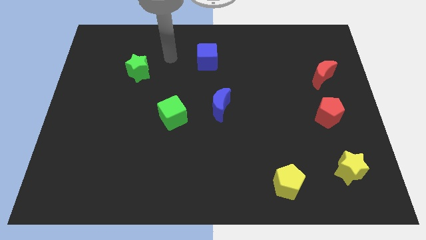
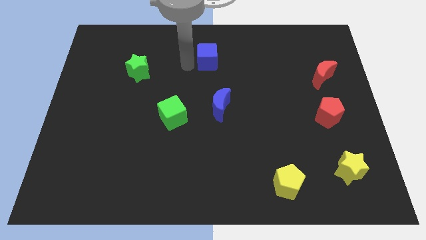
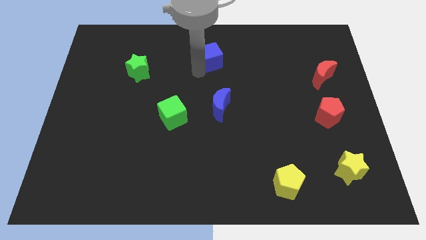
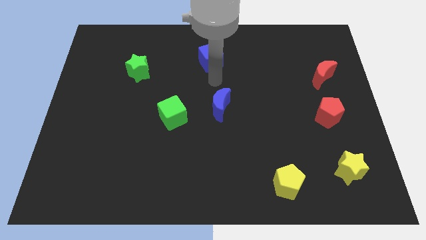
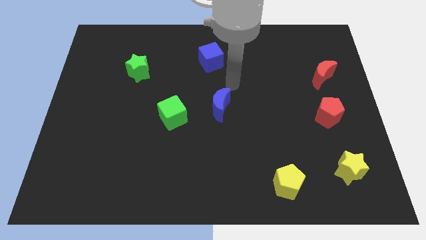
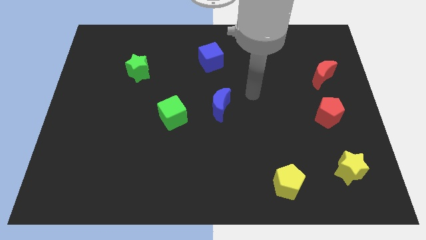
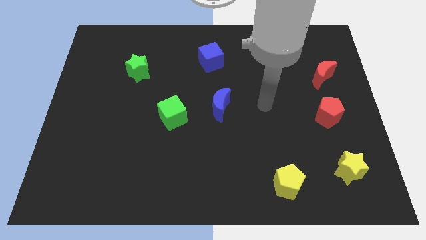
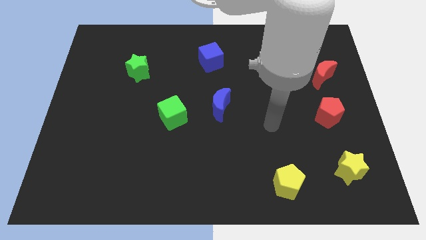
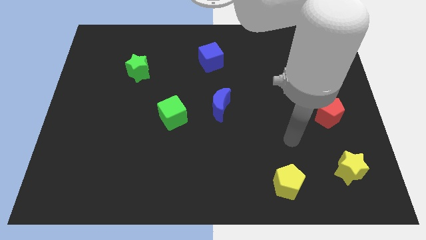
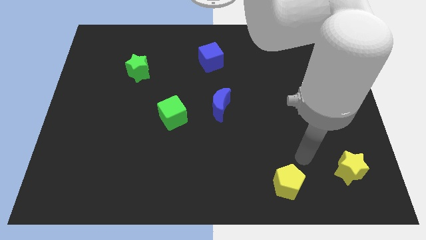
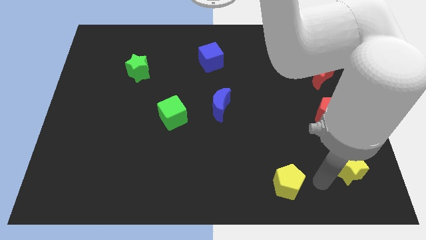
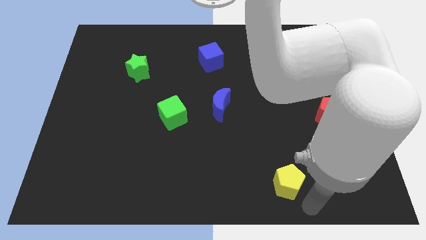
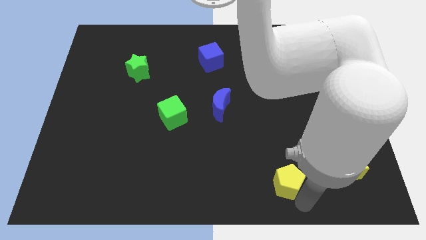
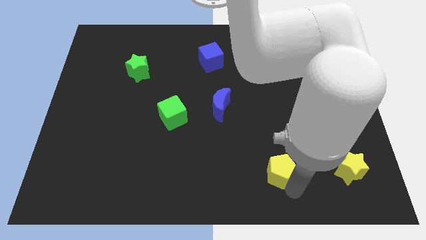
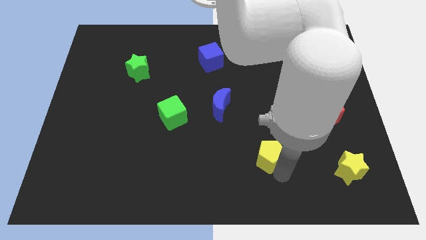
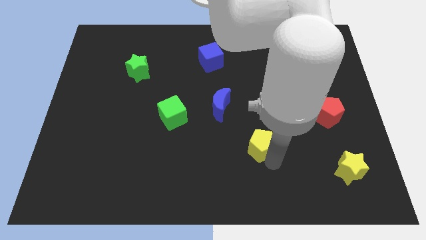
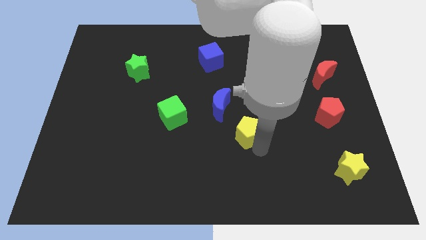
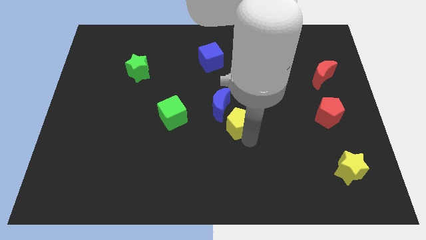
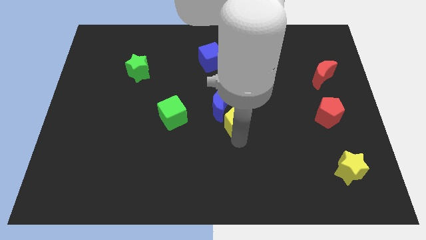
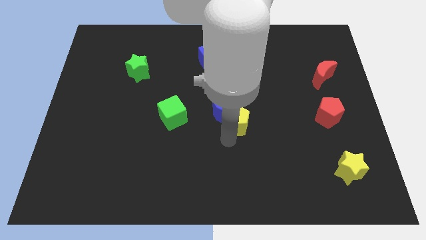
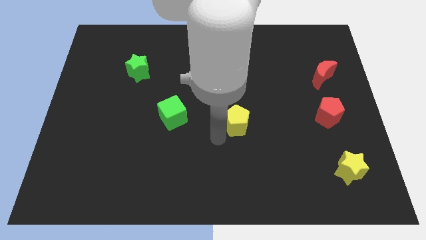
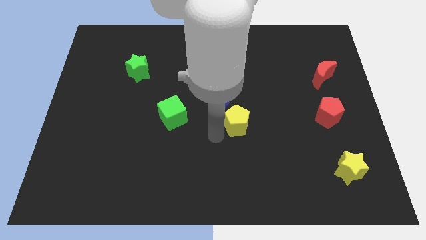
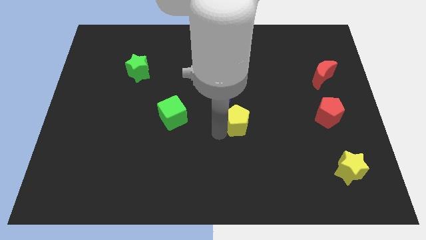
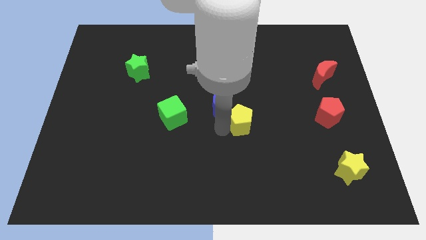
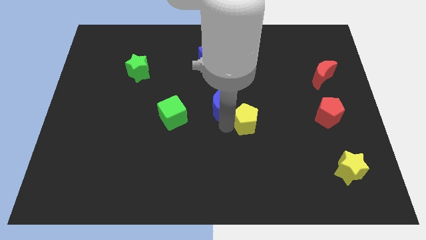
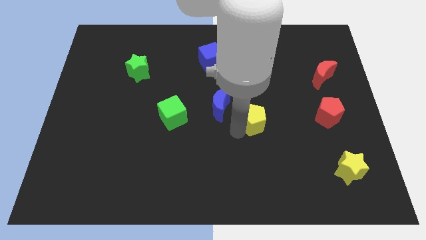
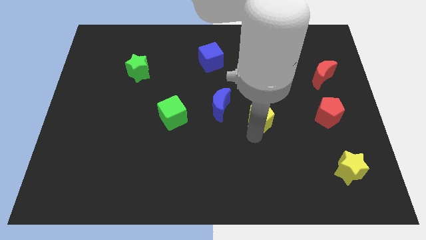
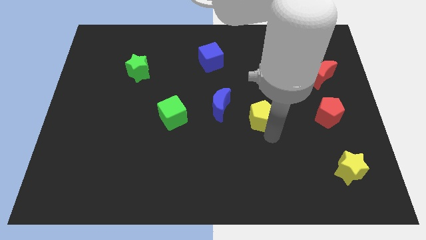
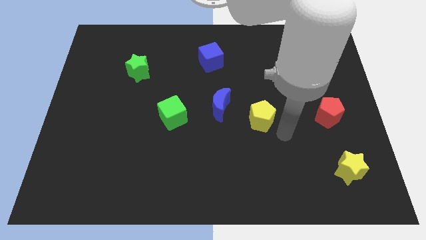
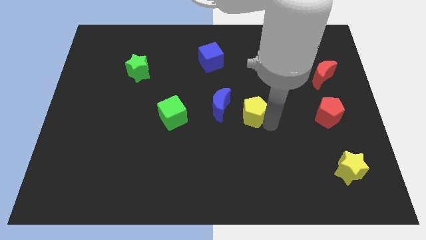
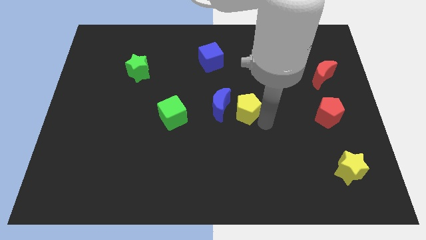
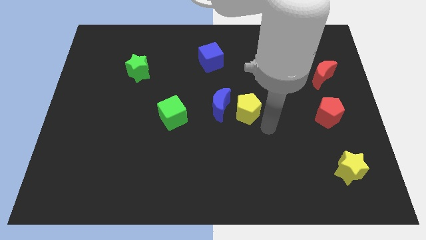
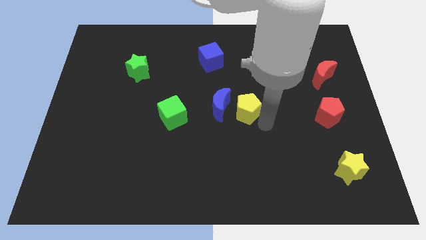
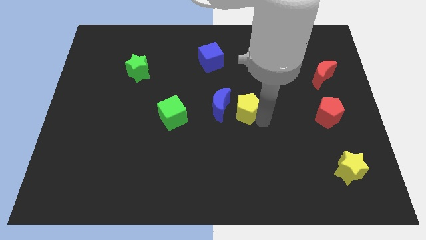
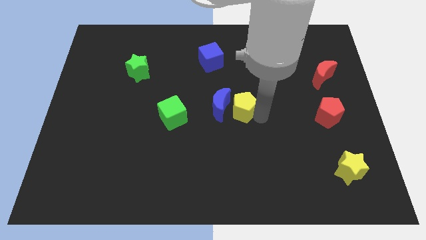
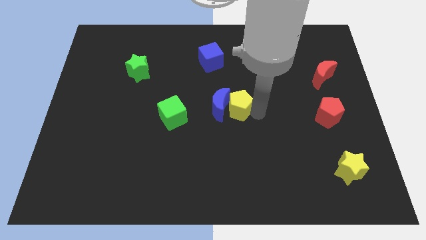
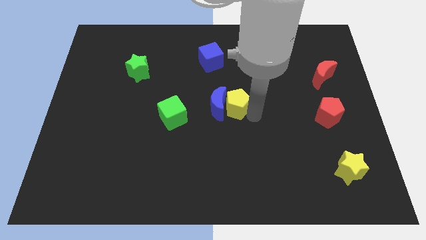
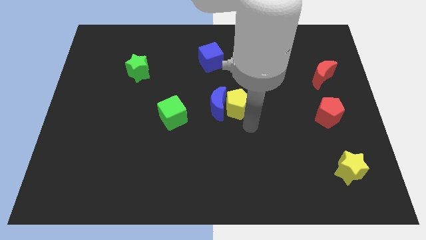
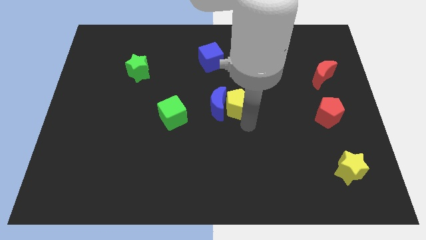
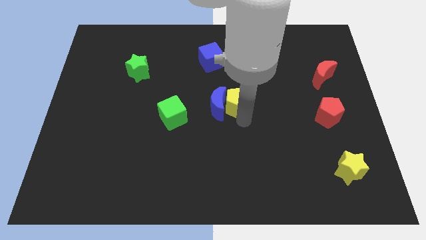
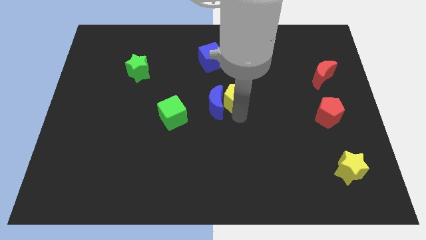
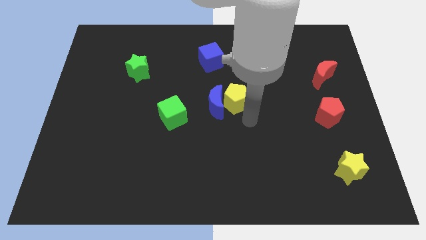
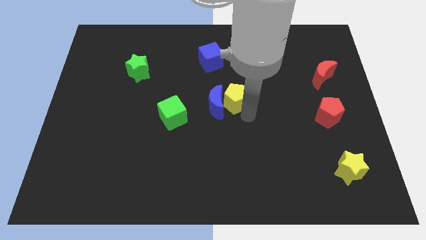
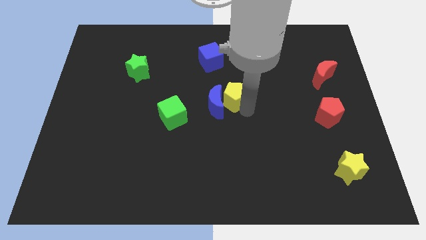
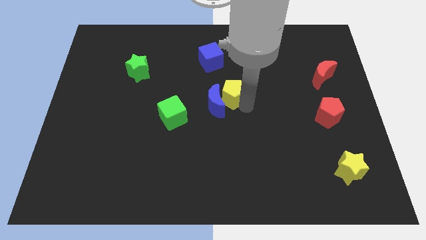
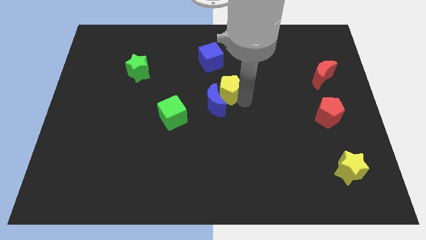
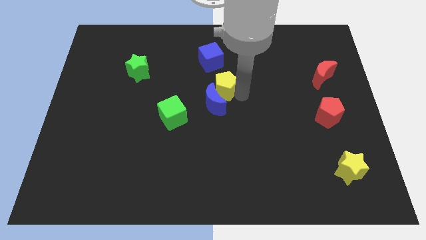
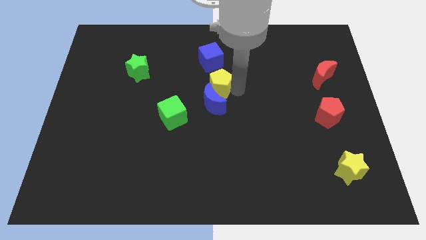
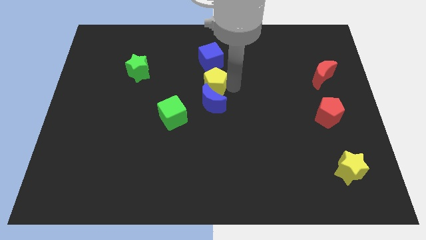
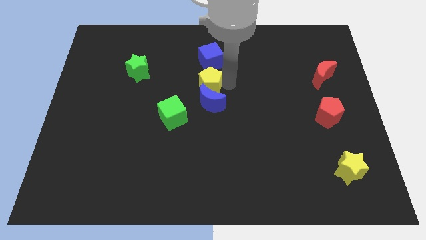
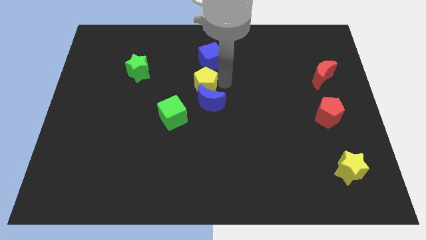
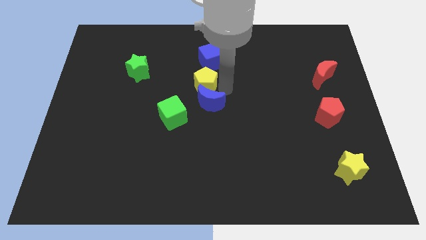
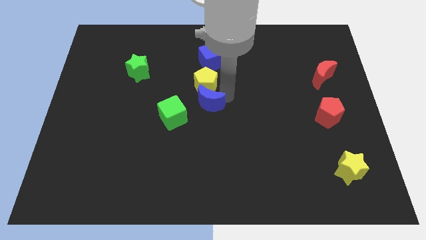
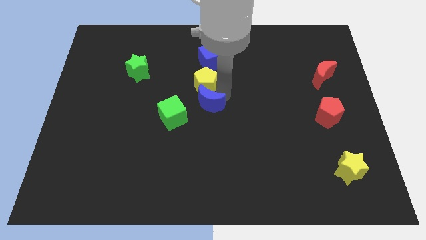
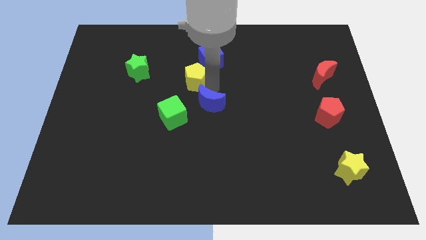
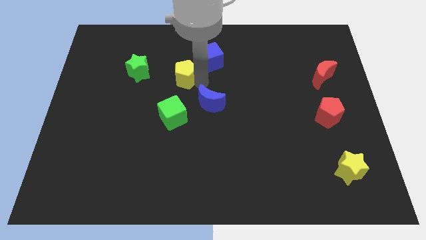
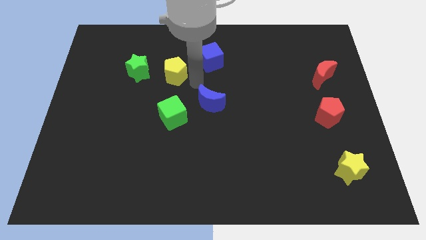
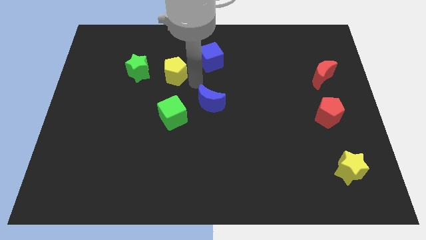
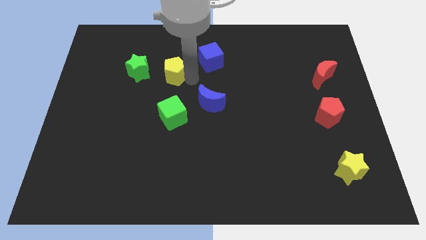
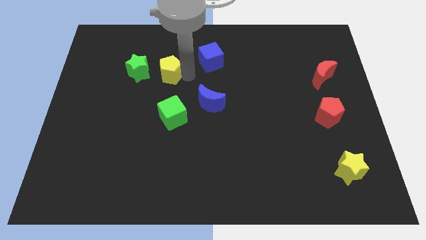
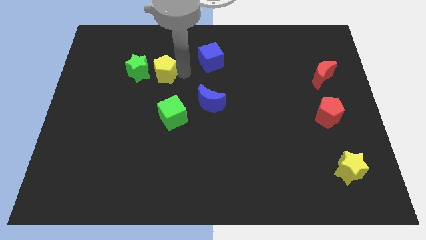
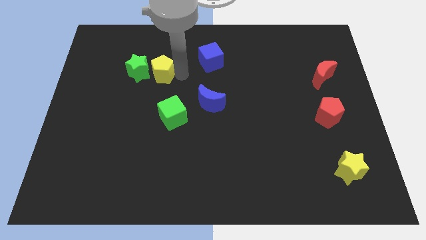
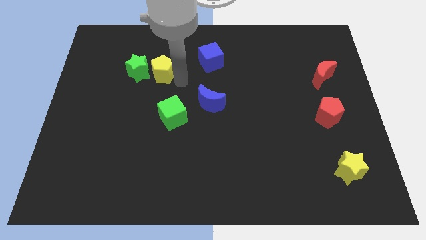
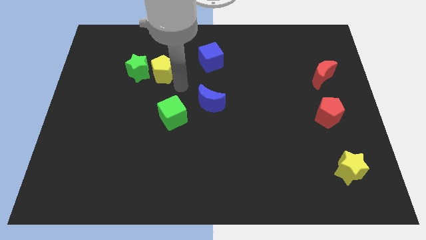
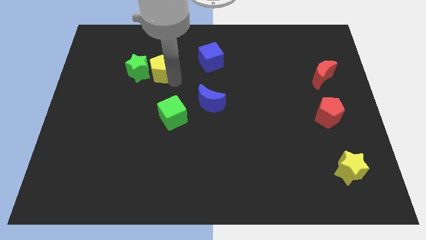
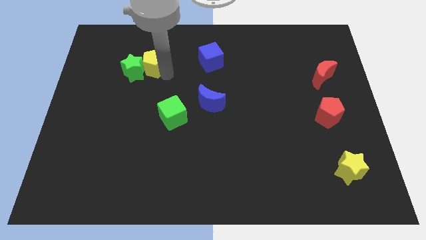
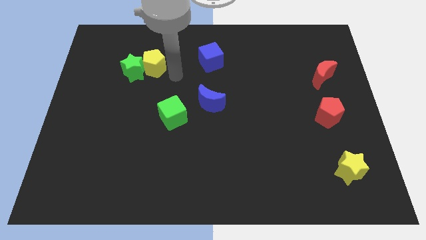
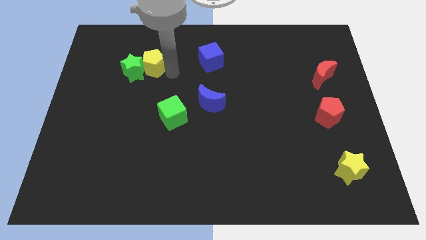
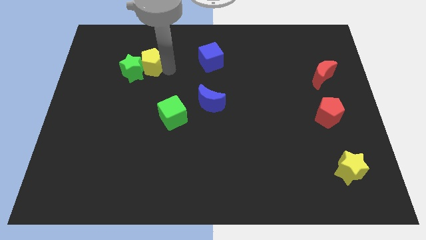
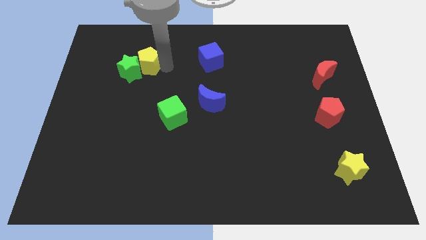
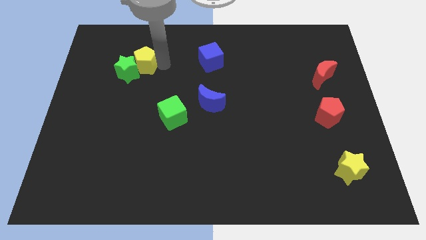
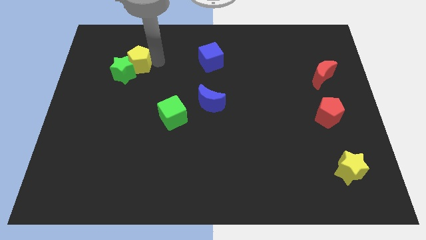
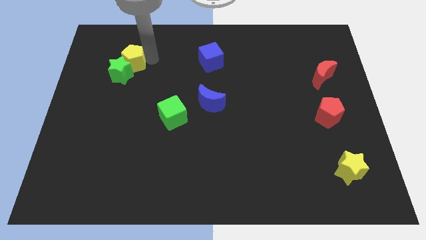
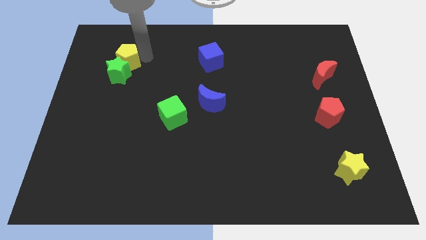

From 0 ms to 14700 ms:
put the yellow pentagon diagonally up and to the left of the green star
